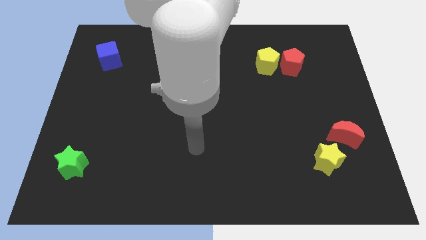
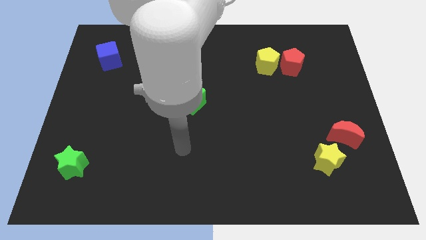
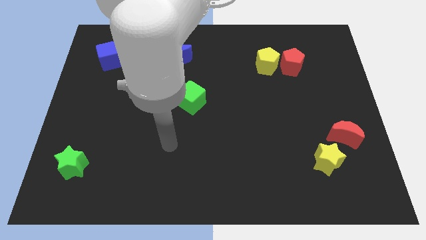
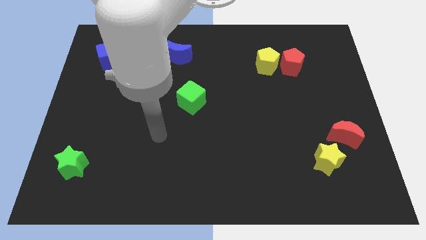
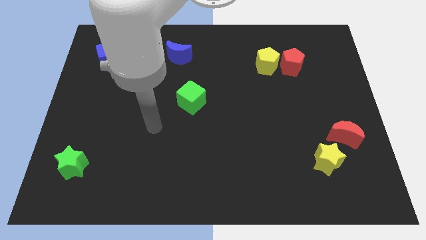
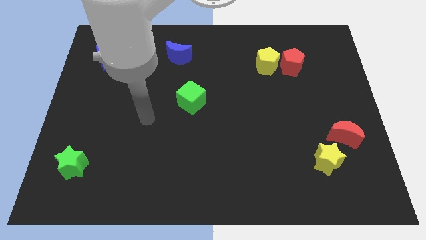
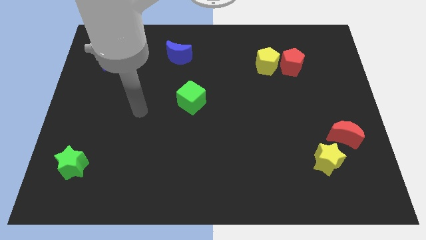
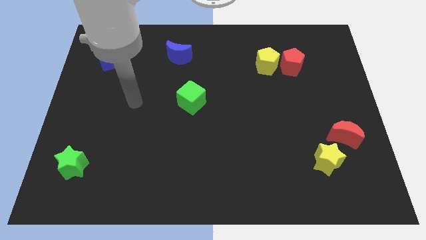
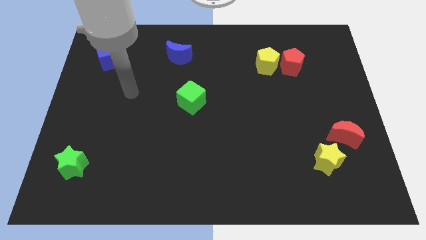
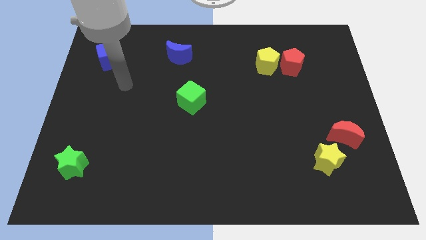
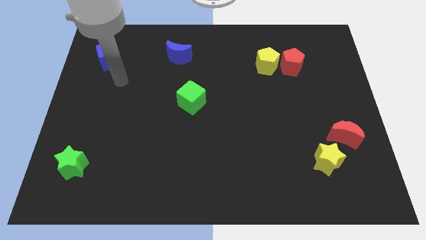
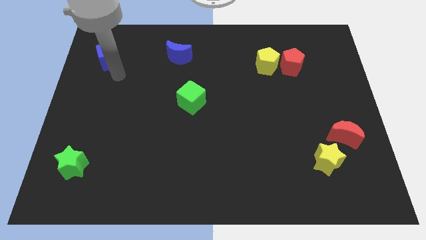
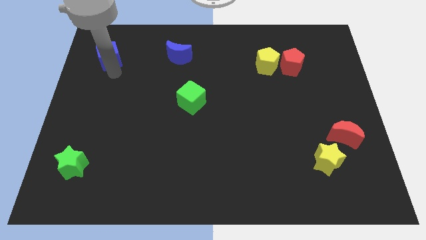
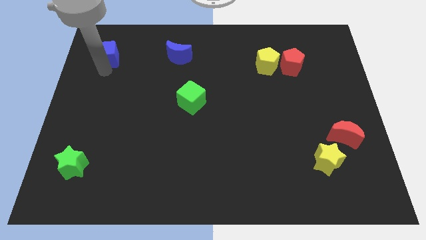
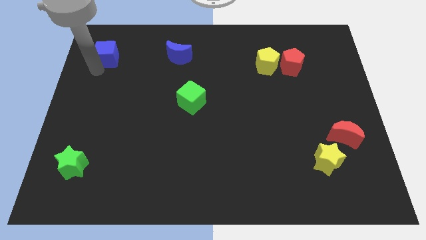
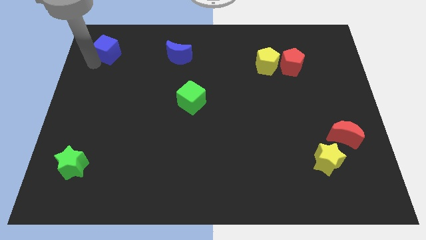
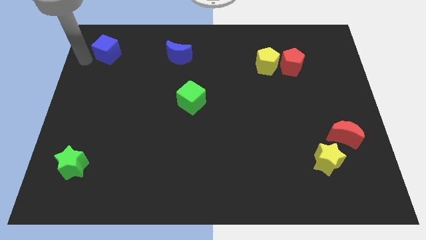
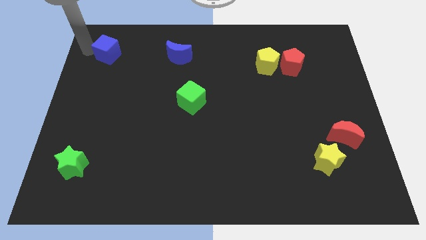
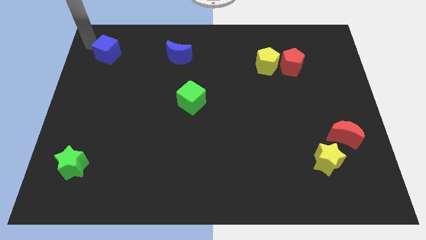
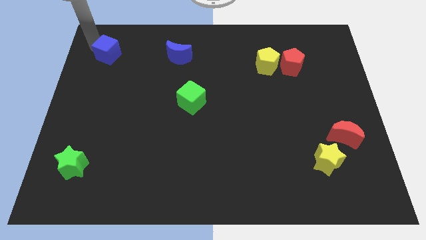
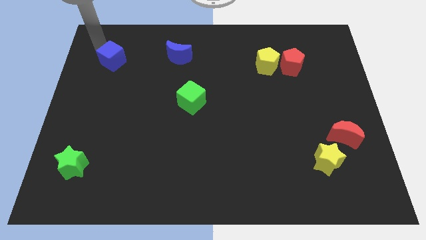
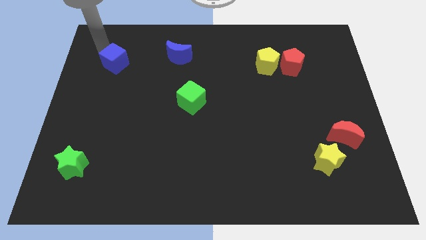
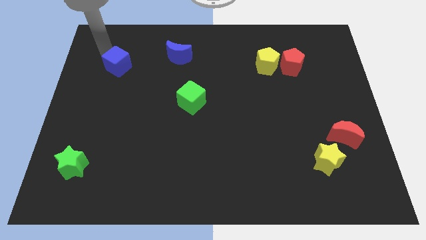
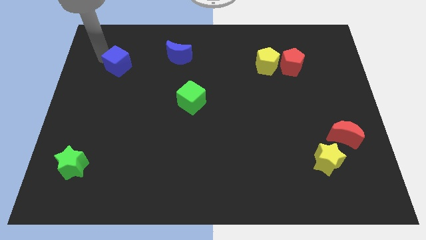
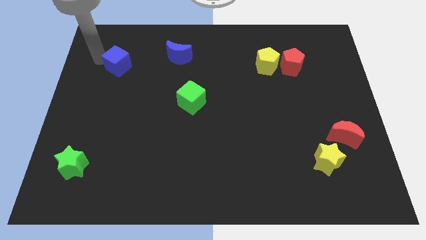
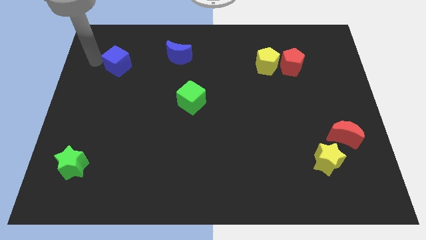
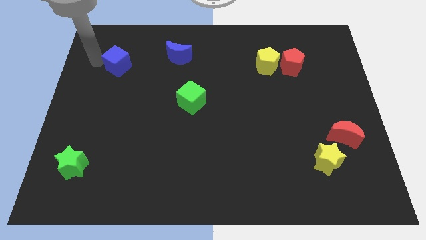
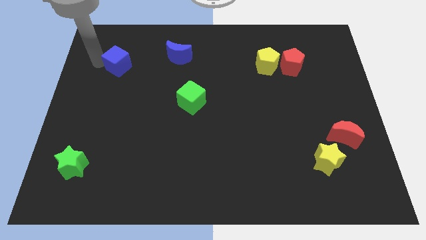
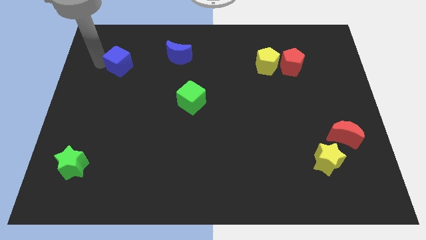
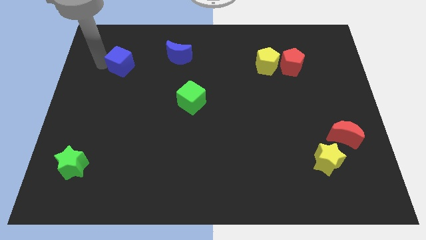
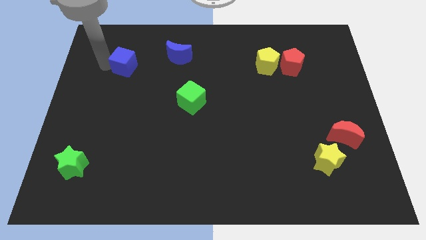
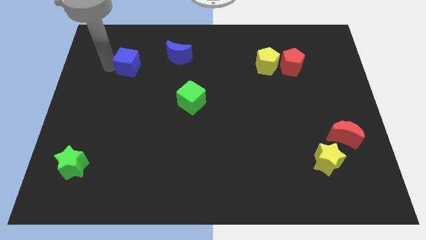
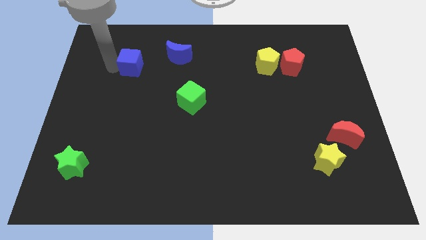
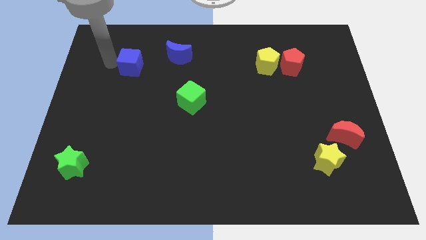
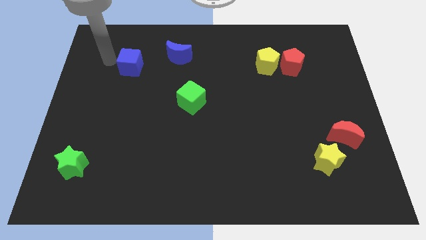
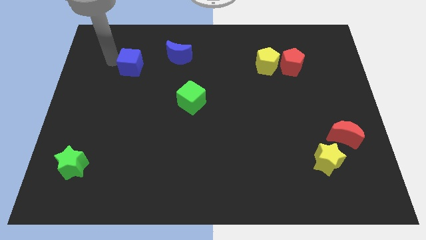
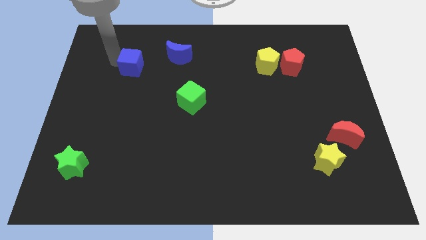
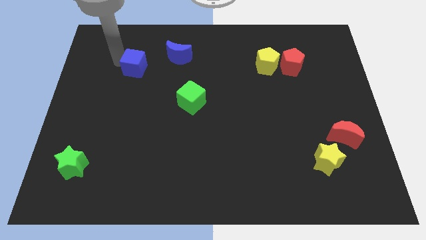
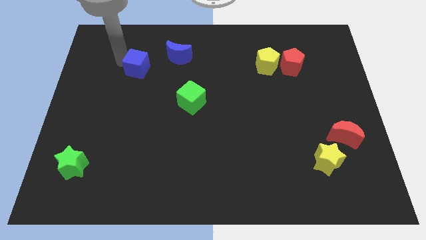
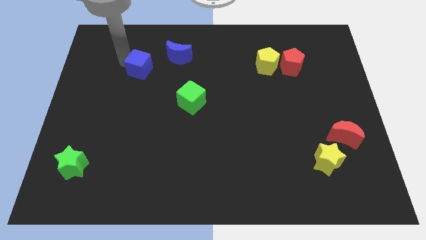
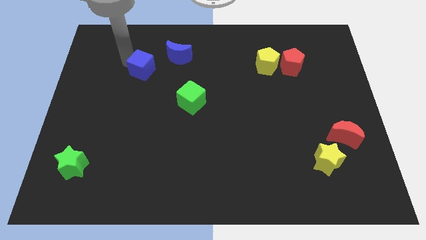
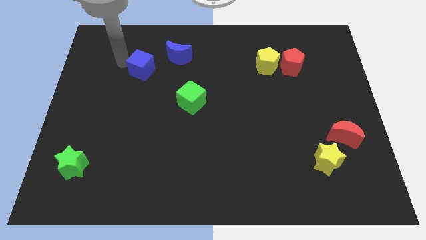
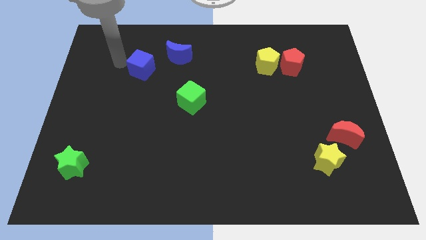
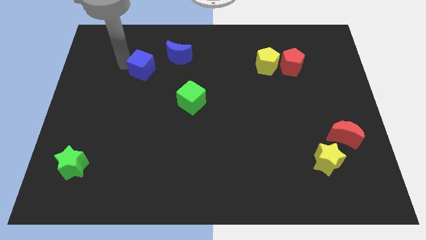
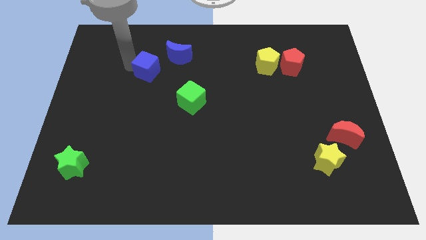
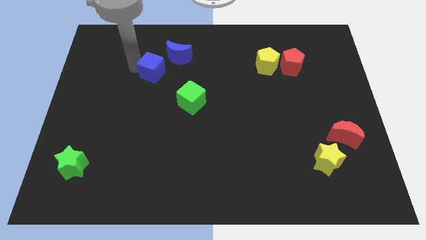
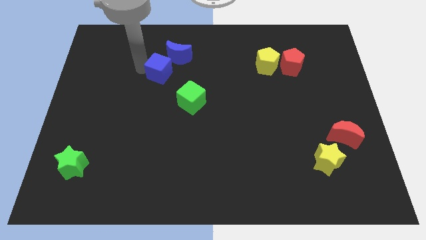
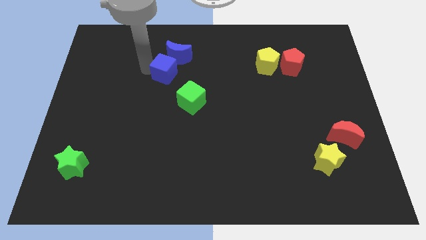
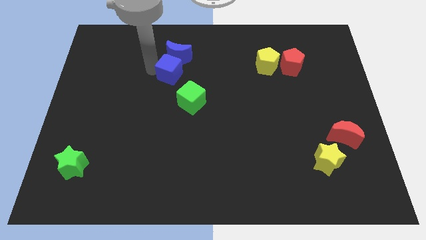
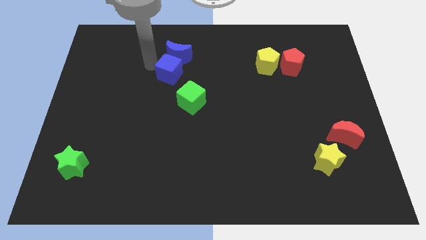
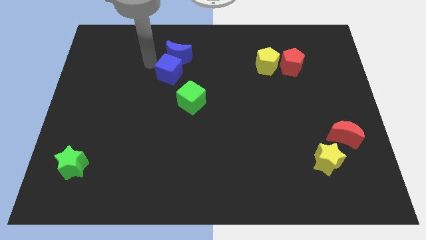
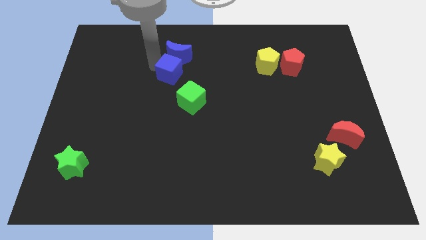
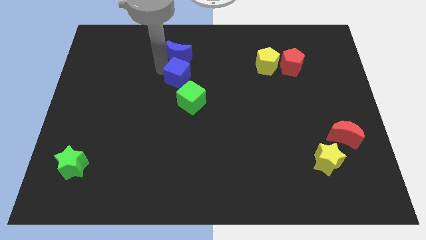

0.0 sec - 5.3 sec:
move the blue cube to the center

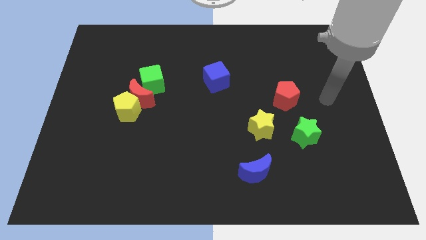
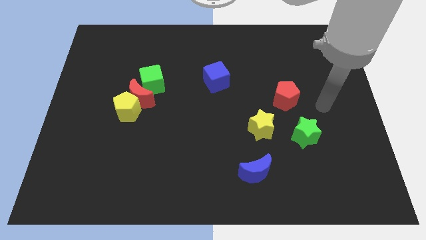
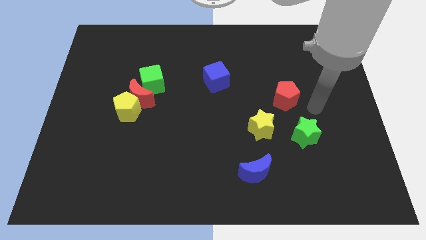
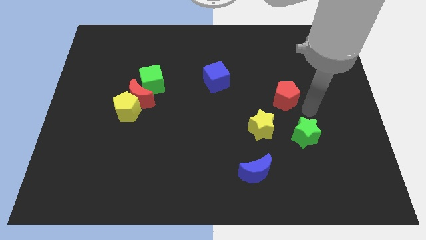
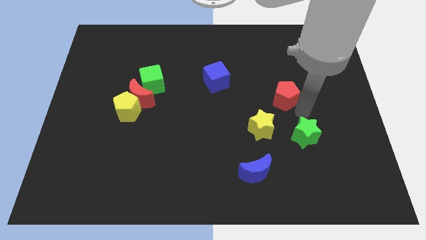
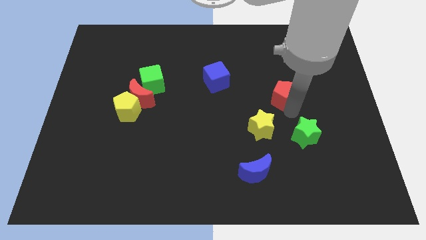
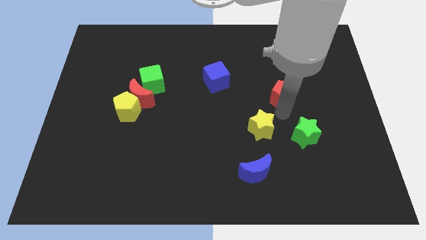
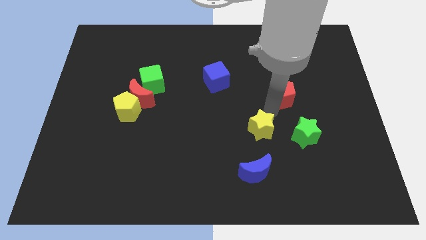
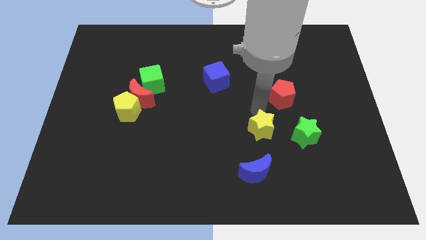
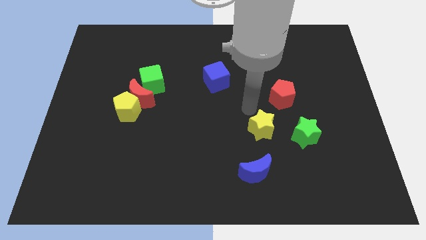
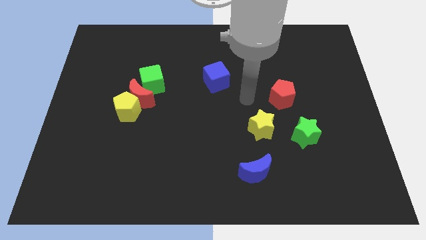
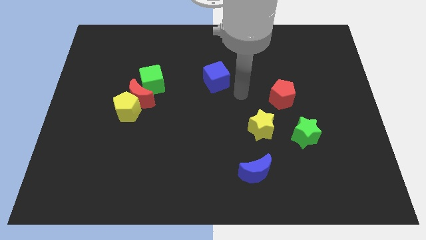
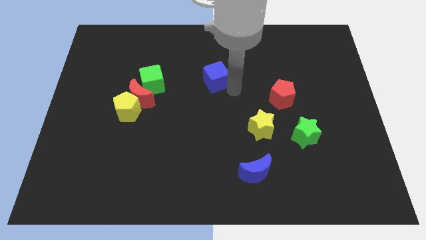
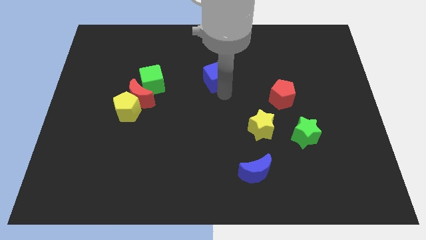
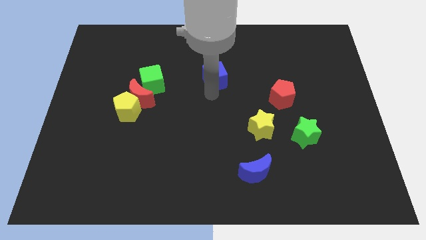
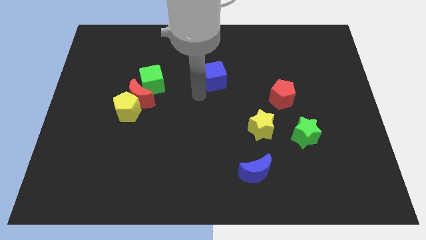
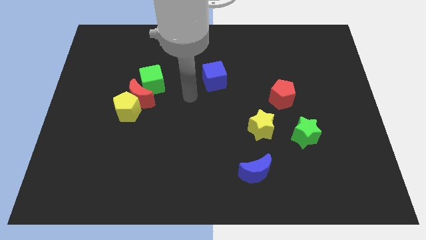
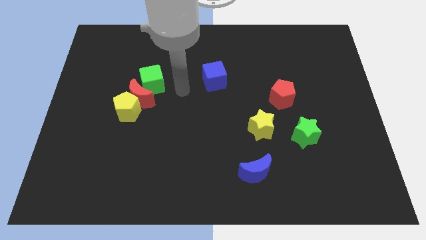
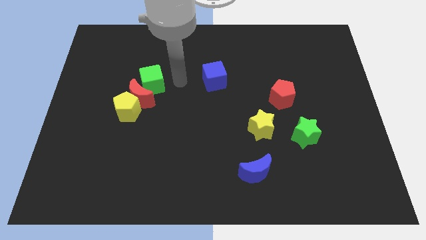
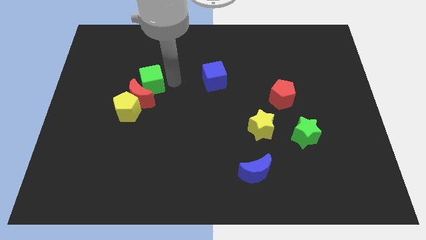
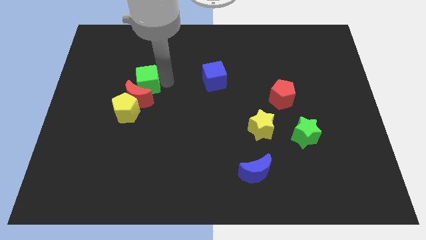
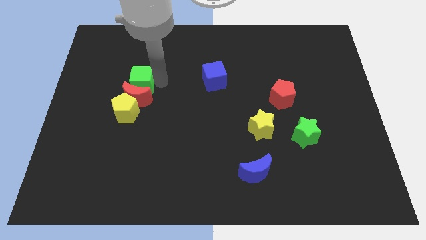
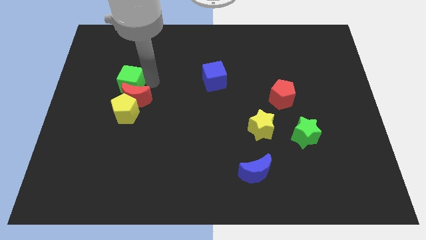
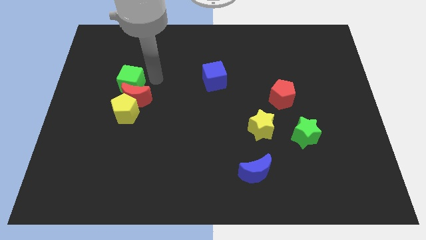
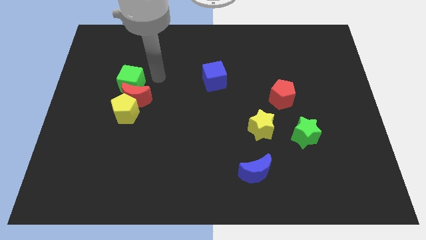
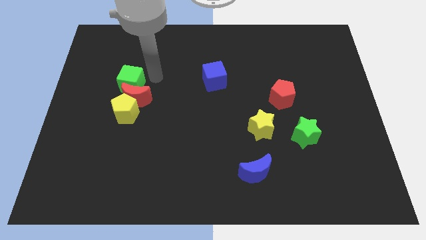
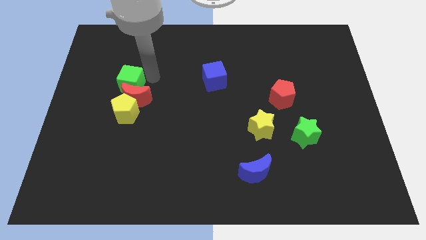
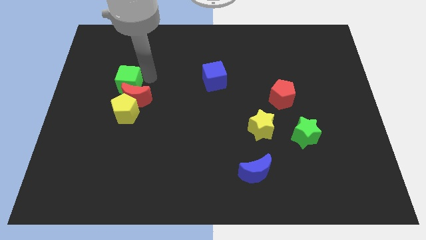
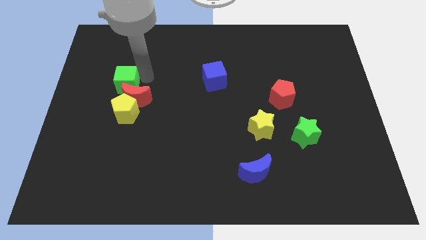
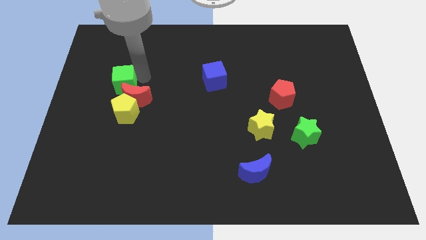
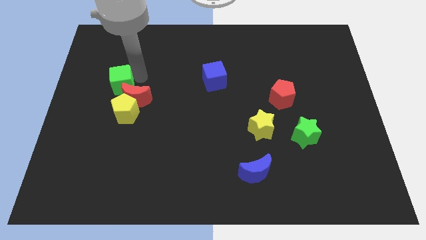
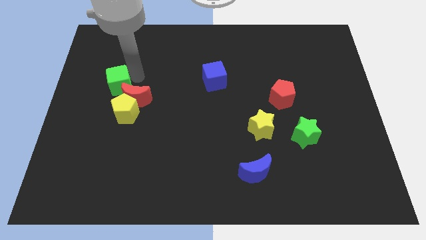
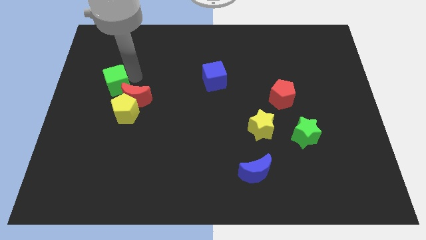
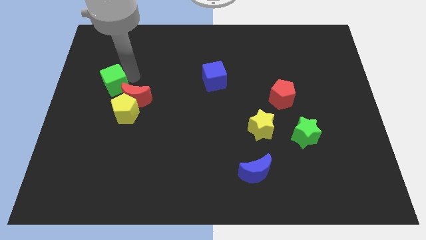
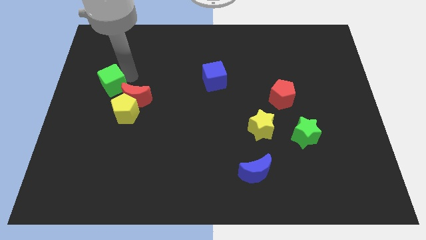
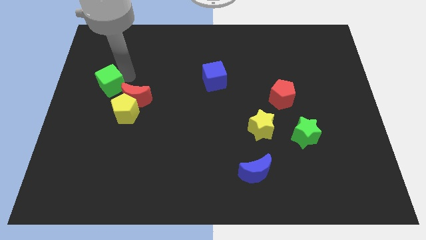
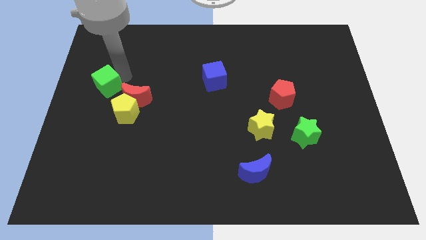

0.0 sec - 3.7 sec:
put the green cube to the left side of the board
